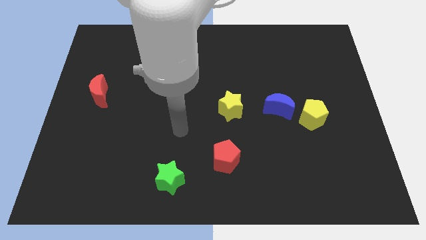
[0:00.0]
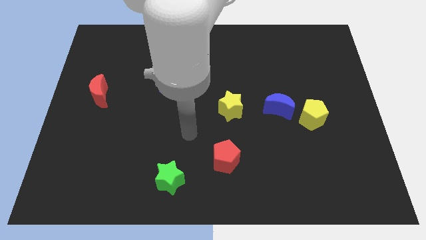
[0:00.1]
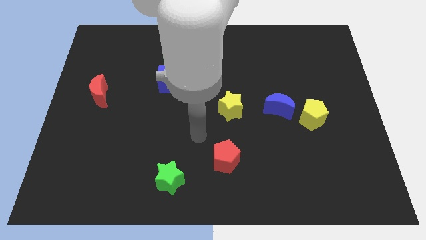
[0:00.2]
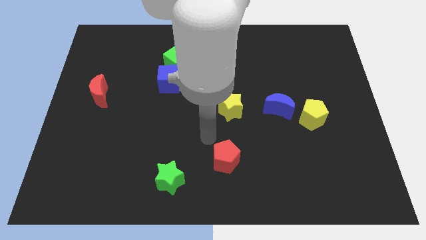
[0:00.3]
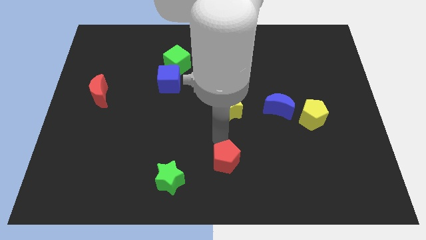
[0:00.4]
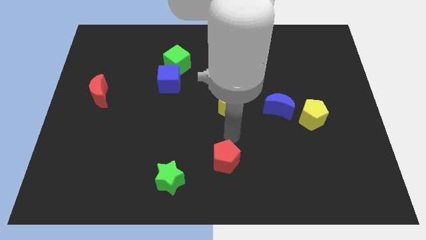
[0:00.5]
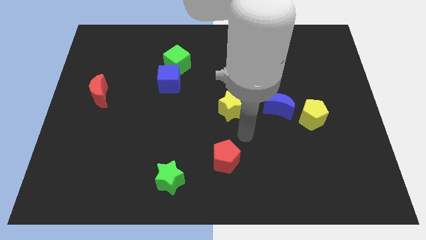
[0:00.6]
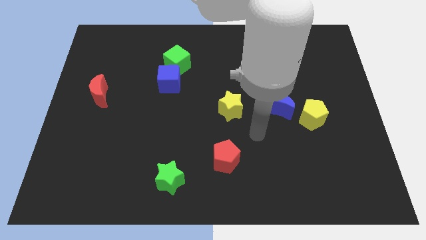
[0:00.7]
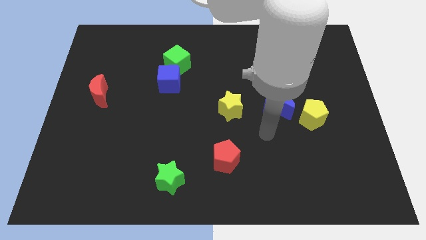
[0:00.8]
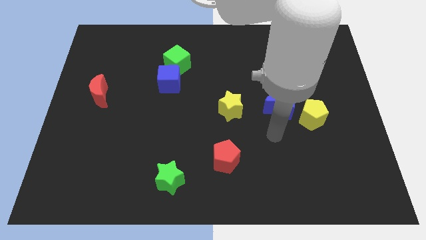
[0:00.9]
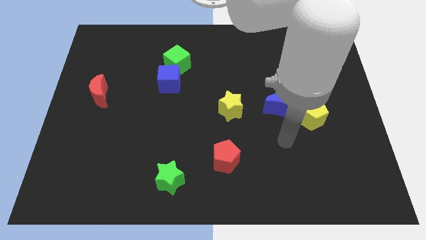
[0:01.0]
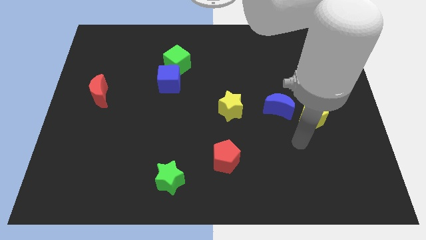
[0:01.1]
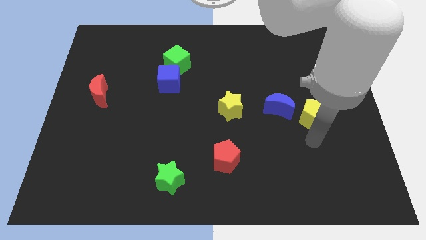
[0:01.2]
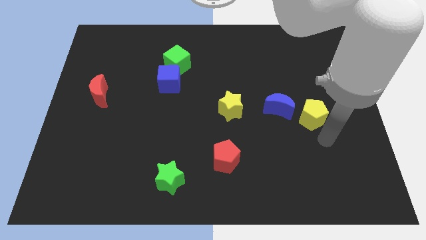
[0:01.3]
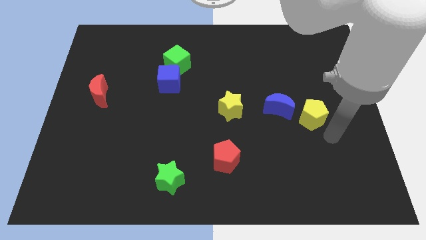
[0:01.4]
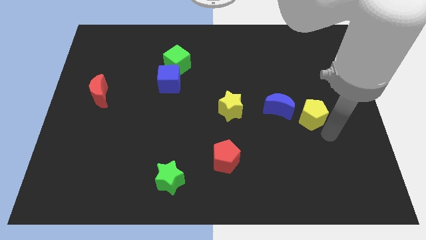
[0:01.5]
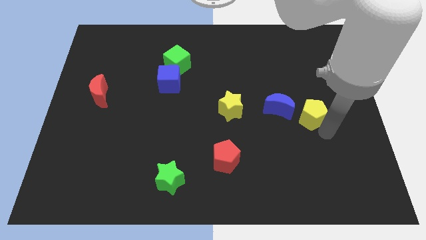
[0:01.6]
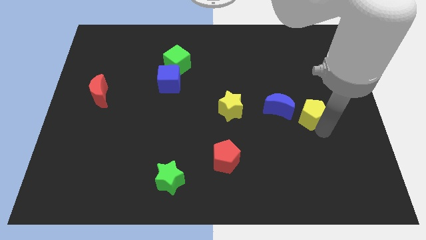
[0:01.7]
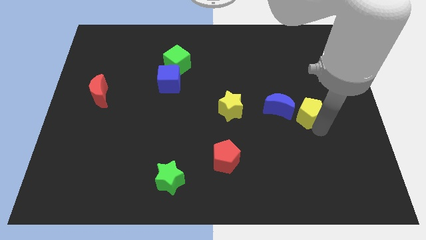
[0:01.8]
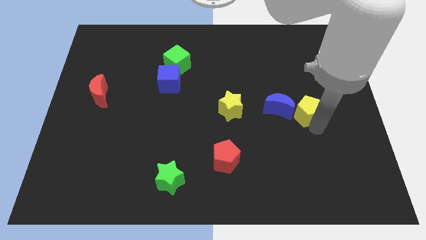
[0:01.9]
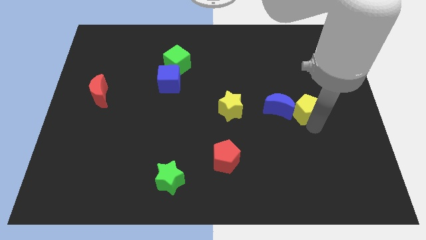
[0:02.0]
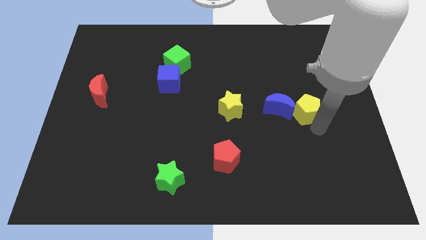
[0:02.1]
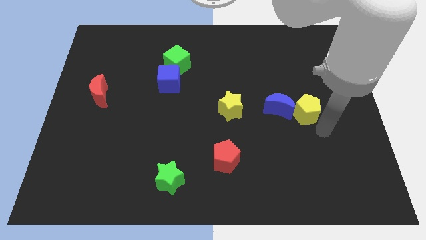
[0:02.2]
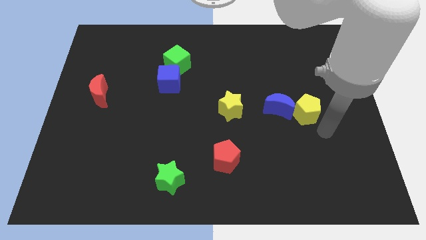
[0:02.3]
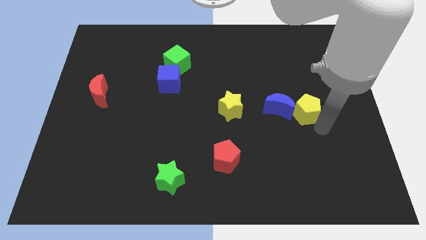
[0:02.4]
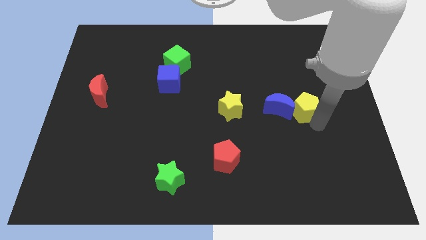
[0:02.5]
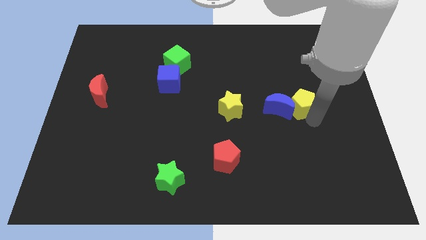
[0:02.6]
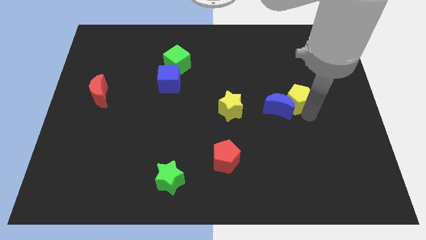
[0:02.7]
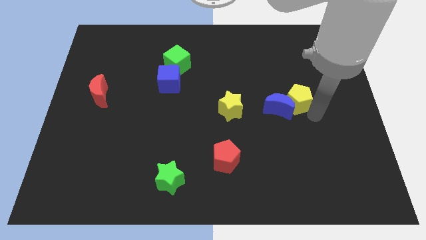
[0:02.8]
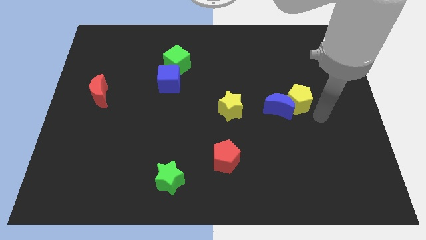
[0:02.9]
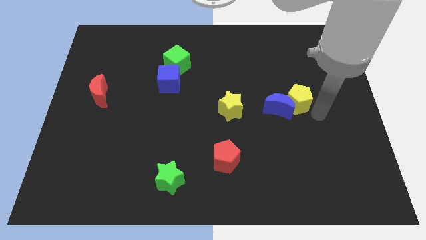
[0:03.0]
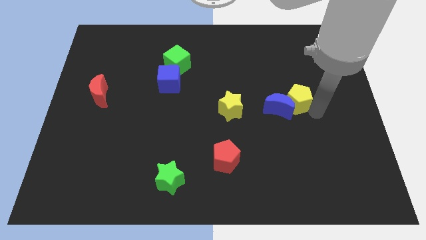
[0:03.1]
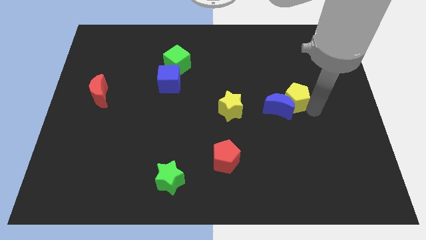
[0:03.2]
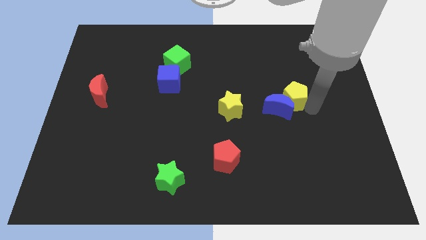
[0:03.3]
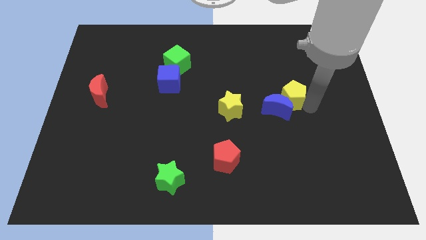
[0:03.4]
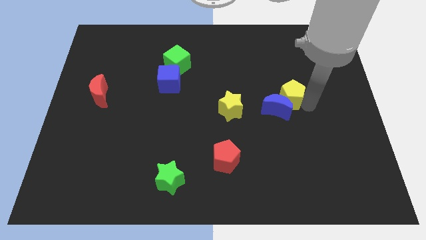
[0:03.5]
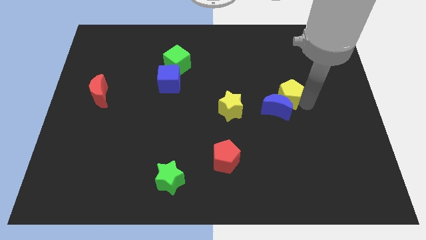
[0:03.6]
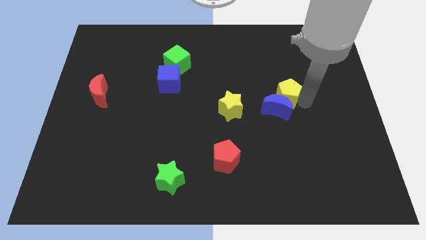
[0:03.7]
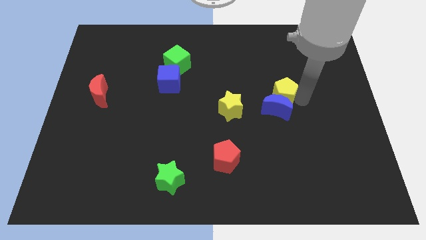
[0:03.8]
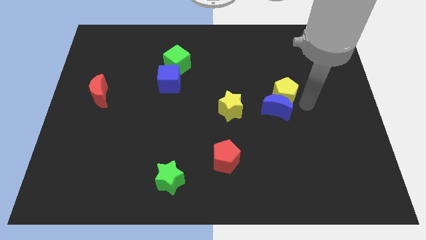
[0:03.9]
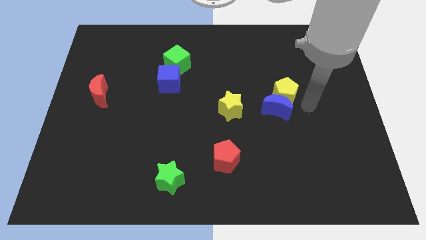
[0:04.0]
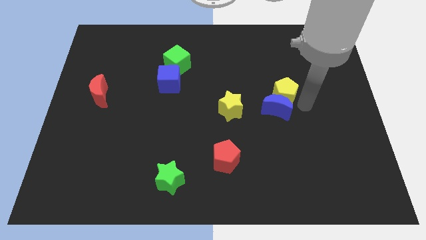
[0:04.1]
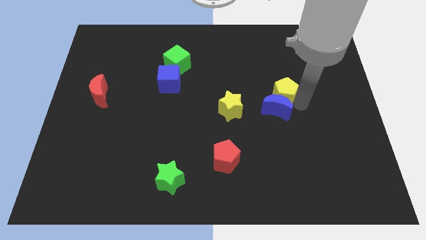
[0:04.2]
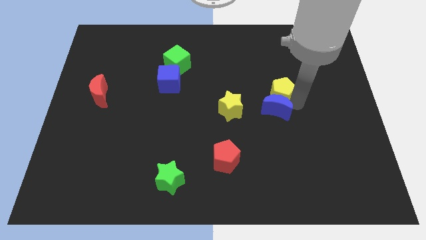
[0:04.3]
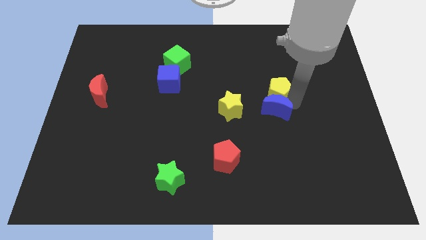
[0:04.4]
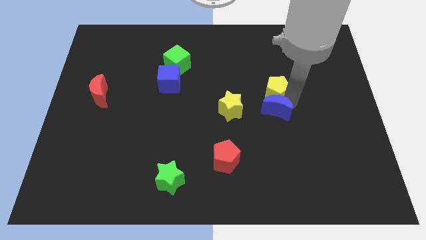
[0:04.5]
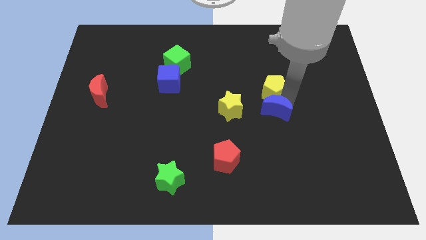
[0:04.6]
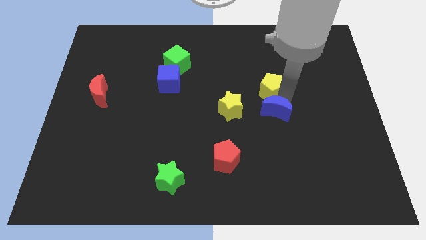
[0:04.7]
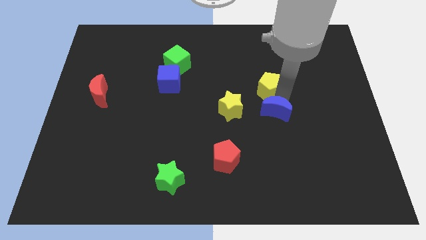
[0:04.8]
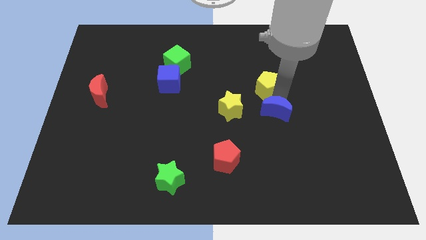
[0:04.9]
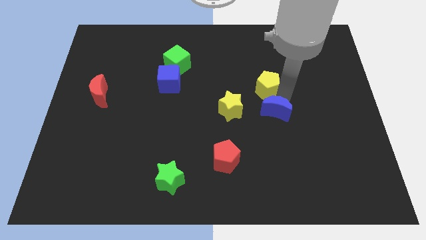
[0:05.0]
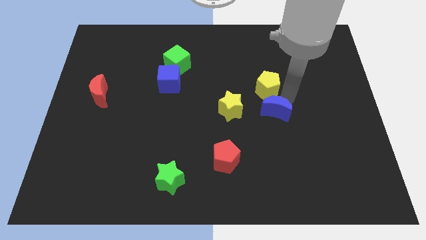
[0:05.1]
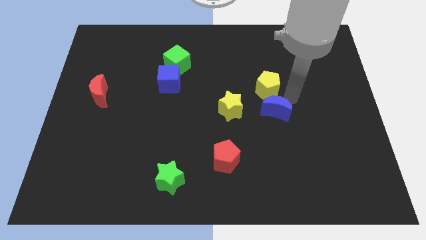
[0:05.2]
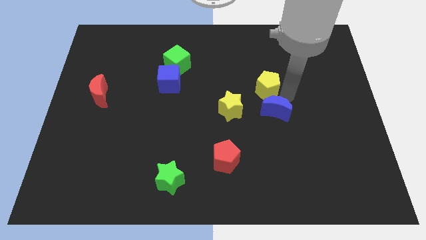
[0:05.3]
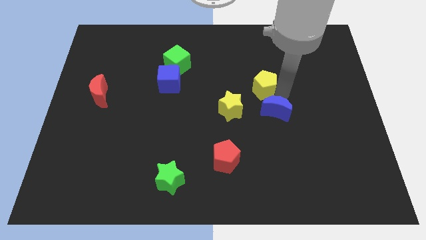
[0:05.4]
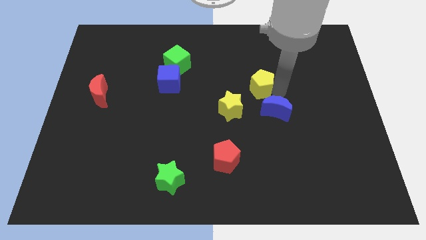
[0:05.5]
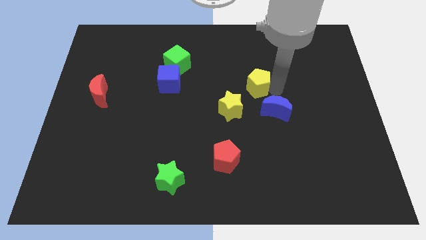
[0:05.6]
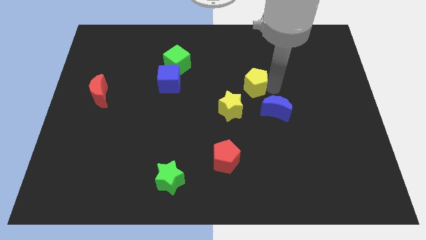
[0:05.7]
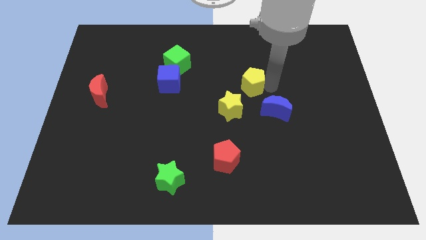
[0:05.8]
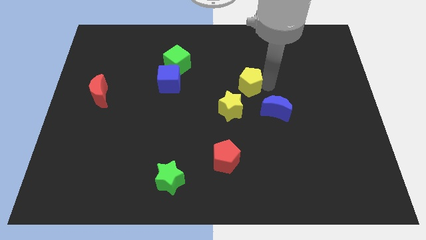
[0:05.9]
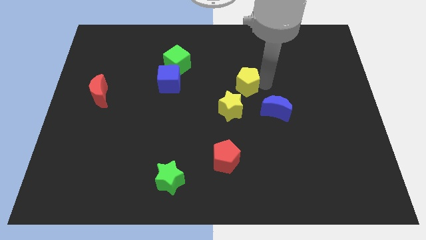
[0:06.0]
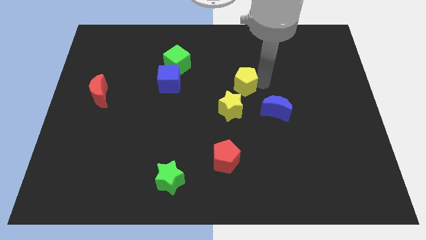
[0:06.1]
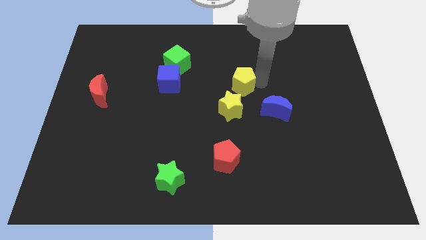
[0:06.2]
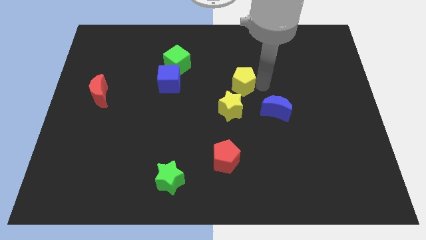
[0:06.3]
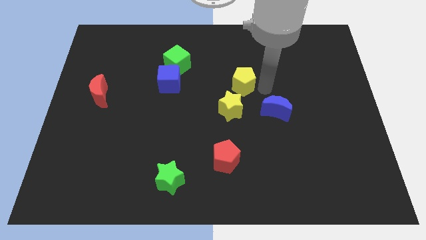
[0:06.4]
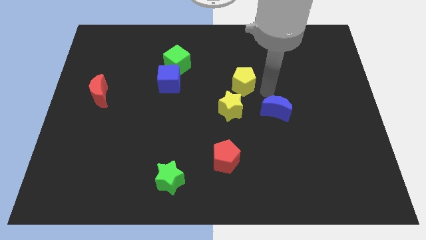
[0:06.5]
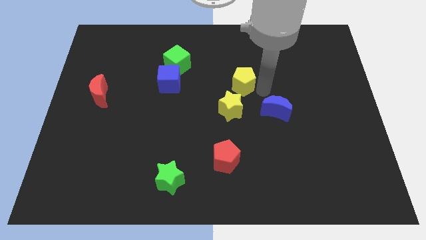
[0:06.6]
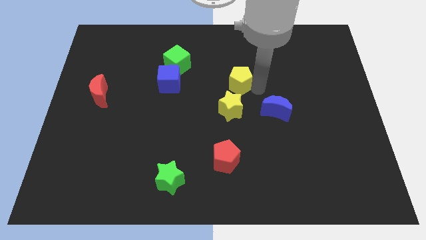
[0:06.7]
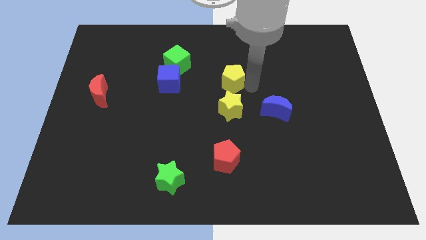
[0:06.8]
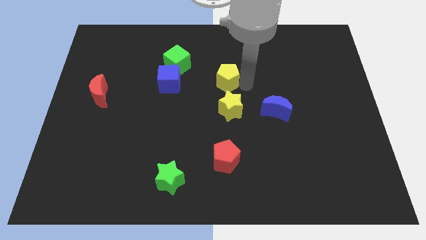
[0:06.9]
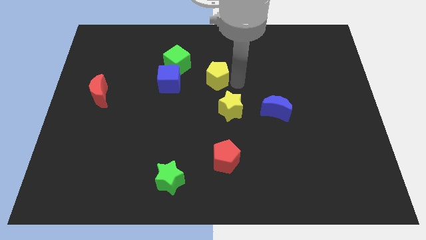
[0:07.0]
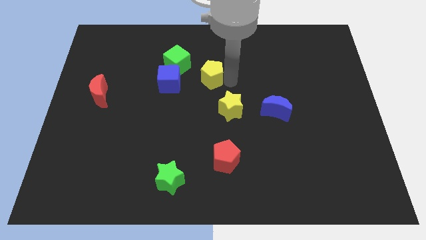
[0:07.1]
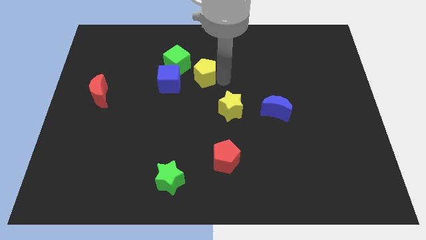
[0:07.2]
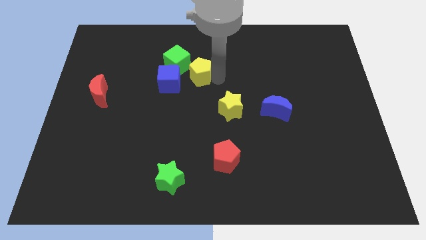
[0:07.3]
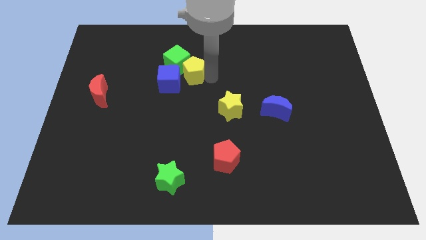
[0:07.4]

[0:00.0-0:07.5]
put the yellow pentagon to the green cube
